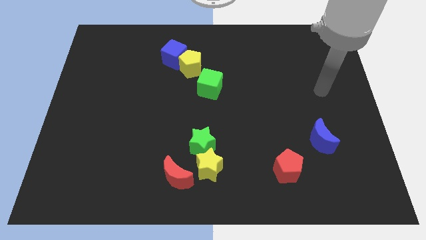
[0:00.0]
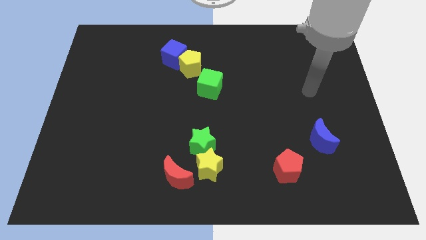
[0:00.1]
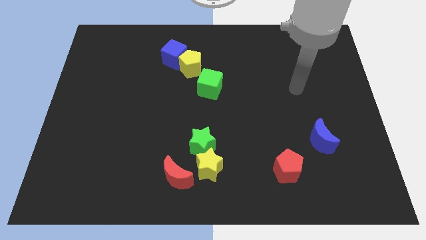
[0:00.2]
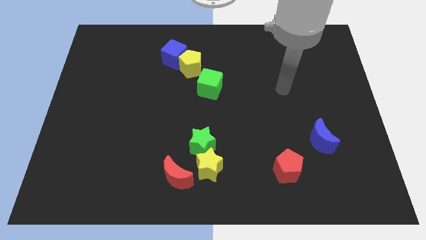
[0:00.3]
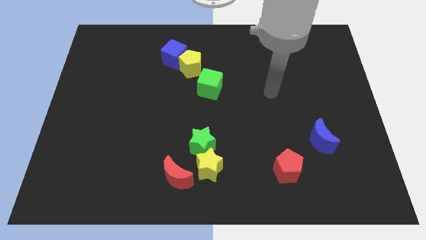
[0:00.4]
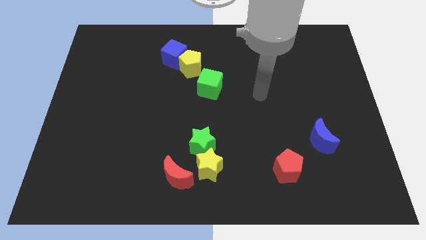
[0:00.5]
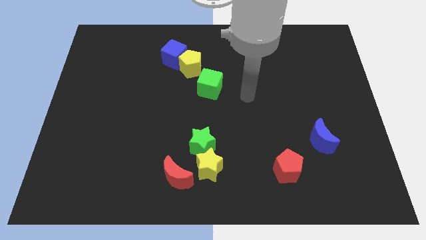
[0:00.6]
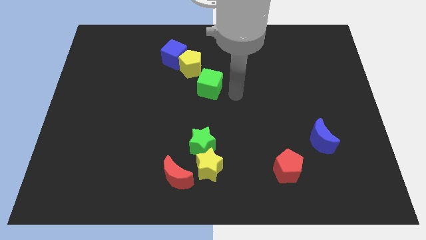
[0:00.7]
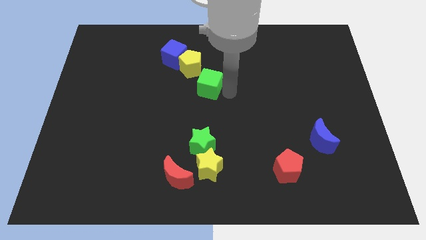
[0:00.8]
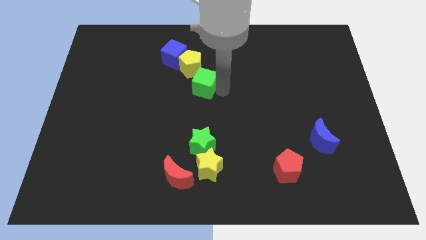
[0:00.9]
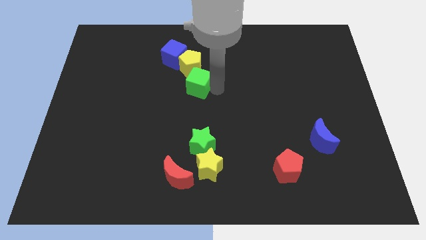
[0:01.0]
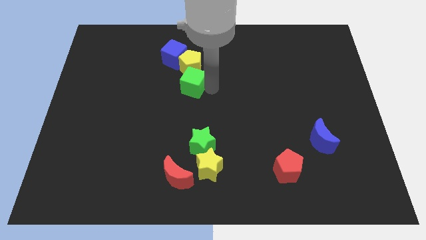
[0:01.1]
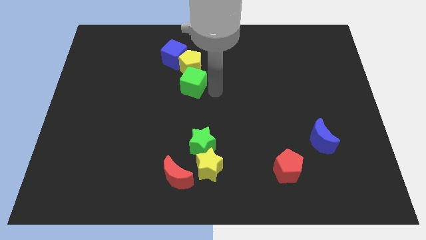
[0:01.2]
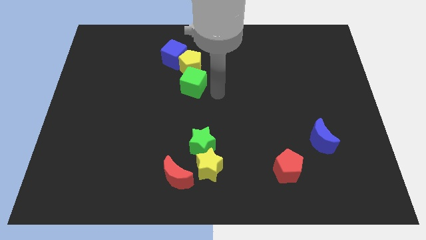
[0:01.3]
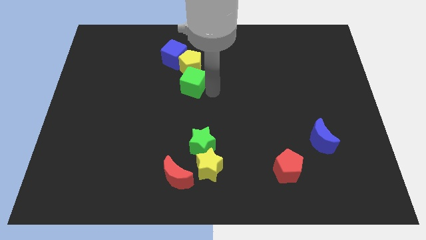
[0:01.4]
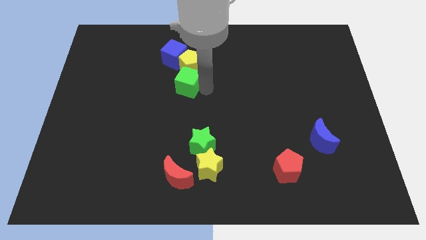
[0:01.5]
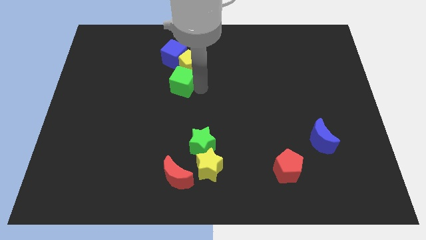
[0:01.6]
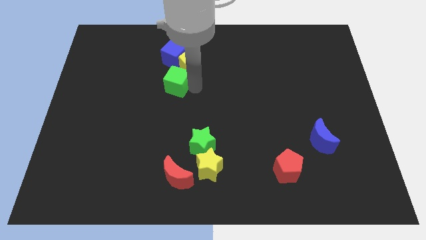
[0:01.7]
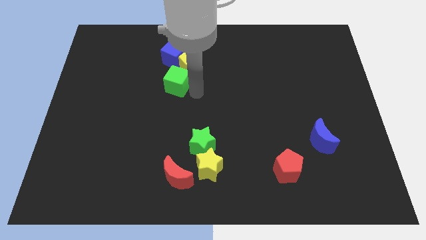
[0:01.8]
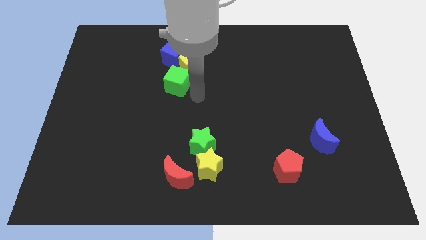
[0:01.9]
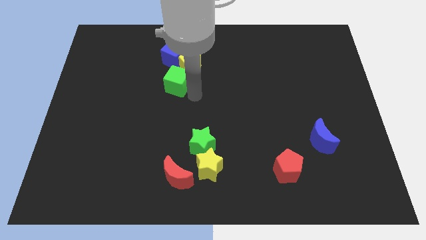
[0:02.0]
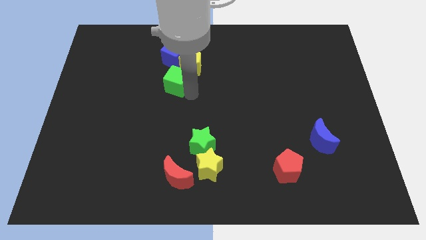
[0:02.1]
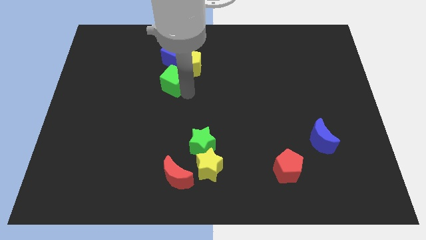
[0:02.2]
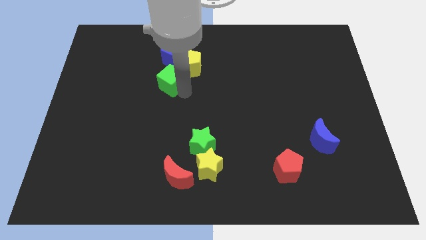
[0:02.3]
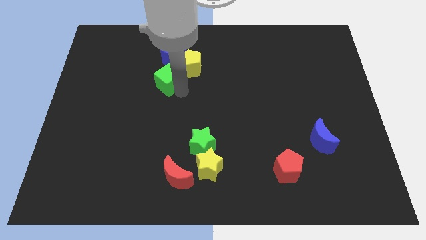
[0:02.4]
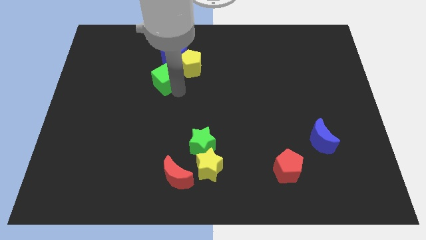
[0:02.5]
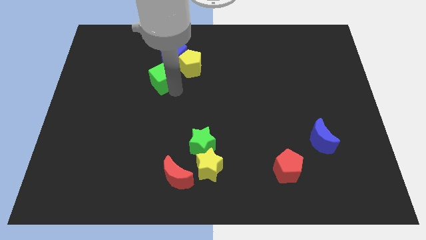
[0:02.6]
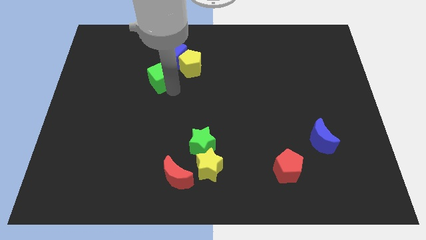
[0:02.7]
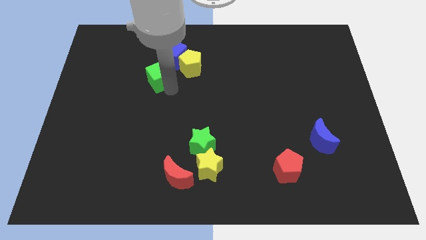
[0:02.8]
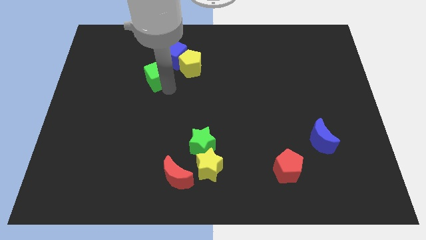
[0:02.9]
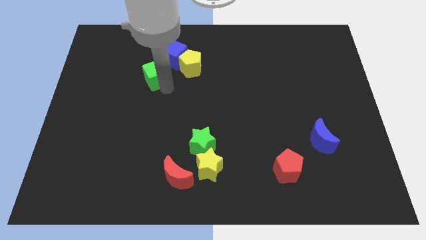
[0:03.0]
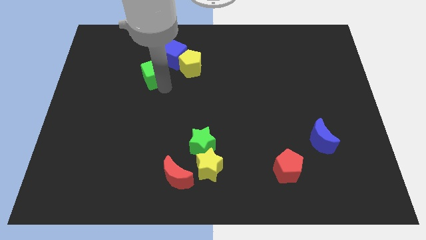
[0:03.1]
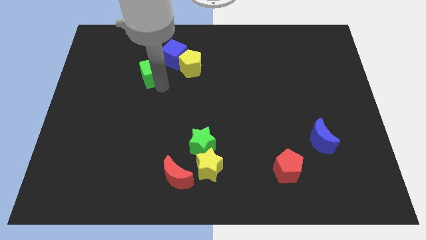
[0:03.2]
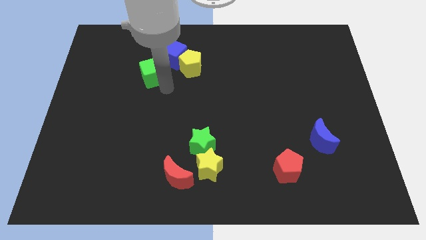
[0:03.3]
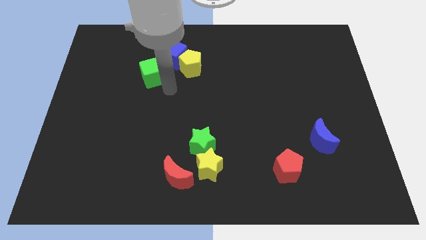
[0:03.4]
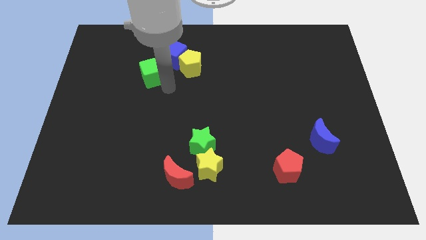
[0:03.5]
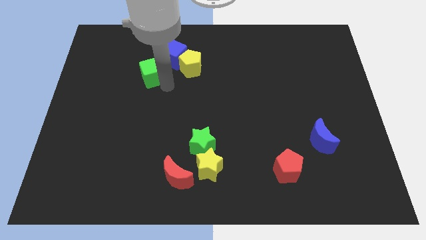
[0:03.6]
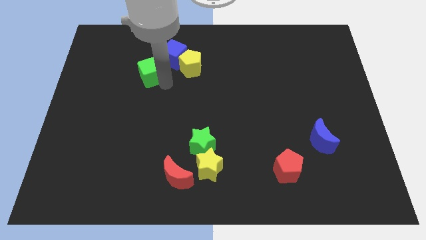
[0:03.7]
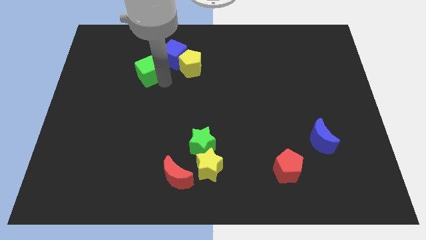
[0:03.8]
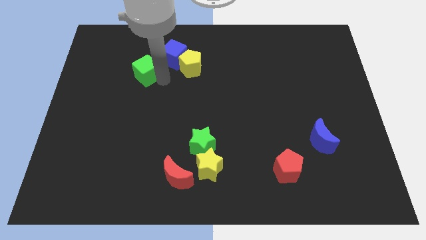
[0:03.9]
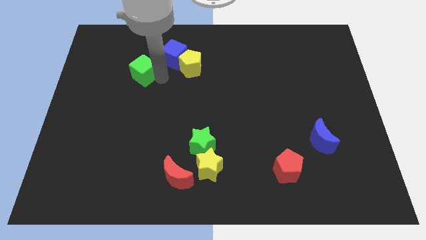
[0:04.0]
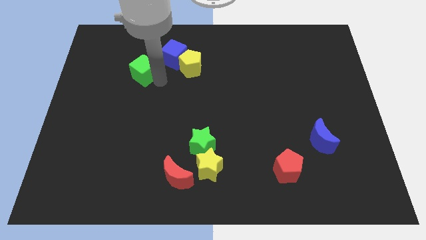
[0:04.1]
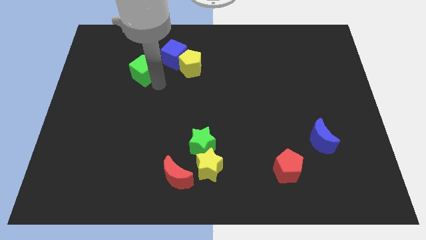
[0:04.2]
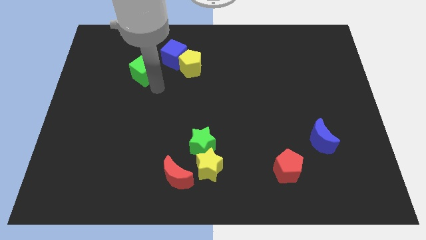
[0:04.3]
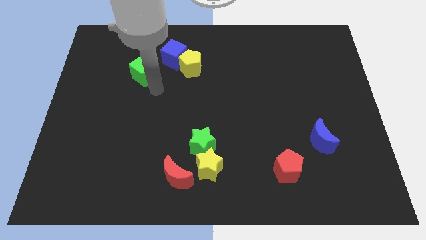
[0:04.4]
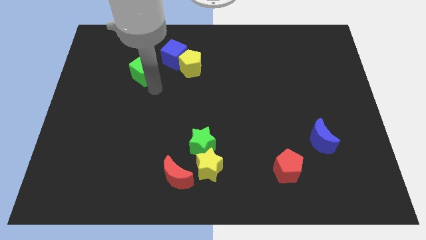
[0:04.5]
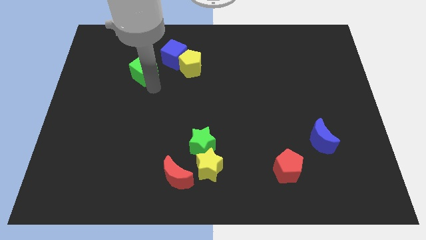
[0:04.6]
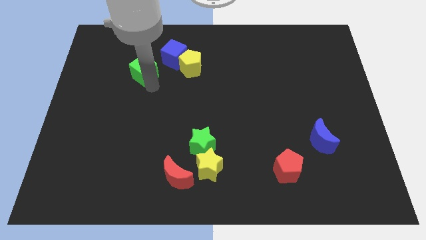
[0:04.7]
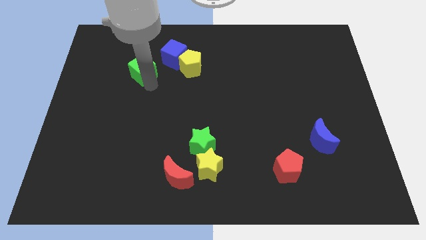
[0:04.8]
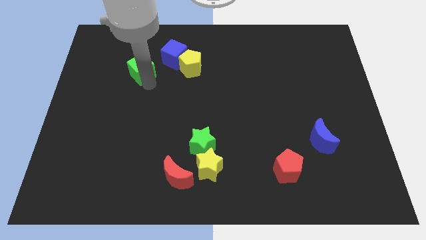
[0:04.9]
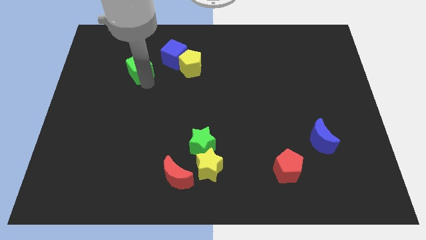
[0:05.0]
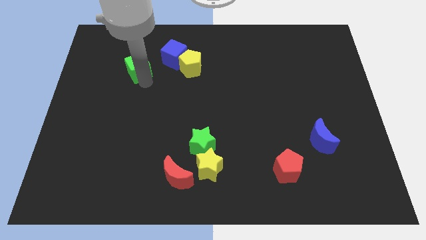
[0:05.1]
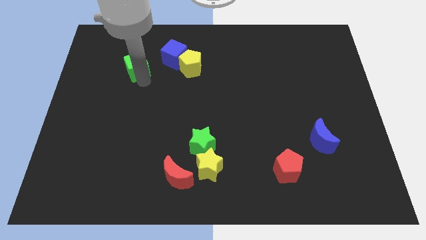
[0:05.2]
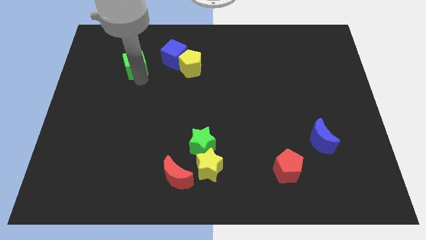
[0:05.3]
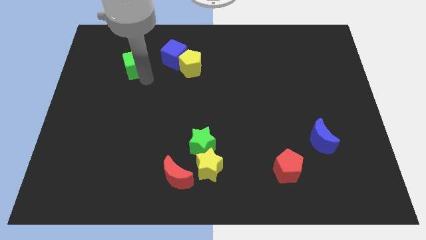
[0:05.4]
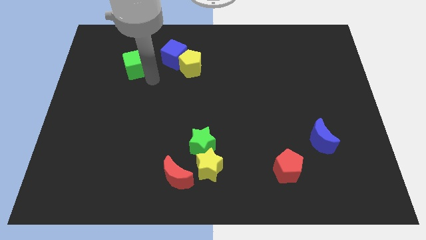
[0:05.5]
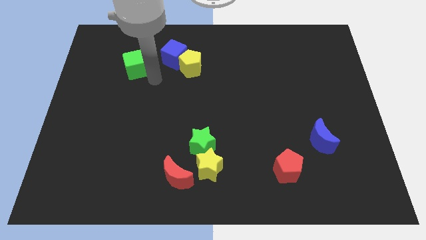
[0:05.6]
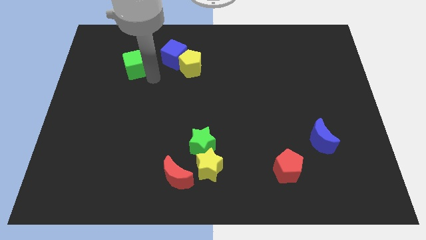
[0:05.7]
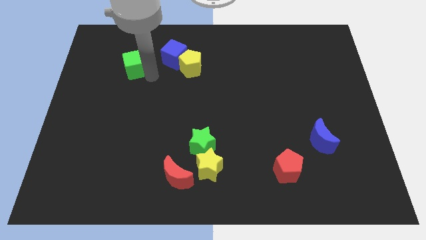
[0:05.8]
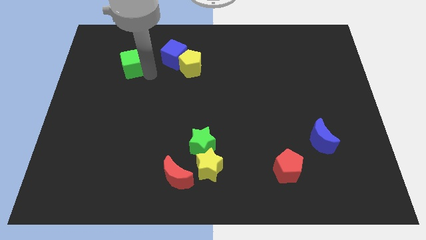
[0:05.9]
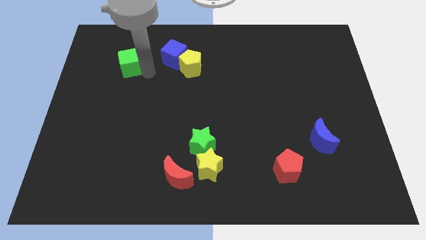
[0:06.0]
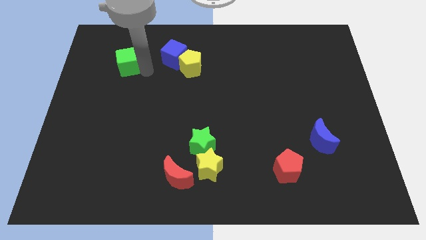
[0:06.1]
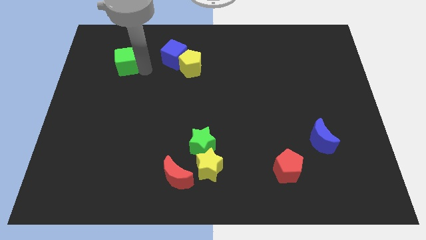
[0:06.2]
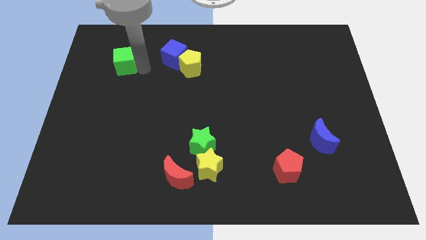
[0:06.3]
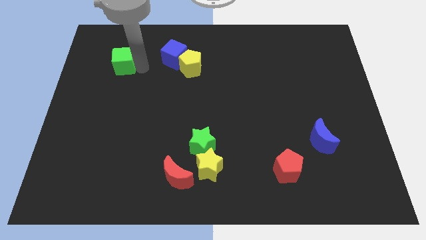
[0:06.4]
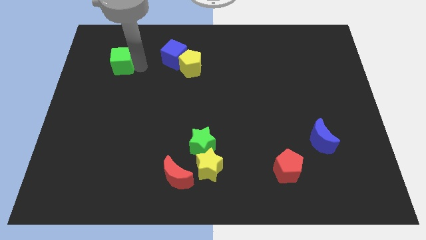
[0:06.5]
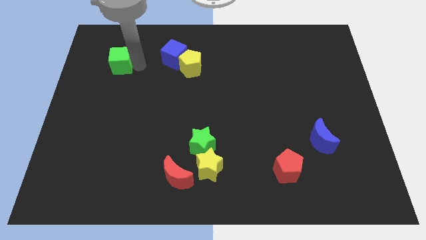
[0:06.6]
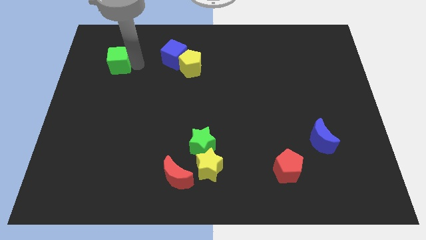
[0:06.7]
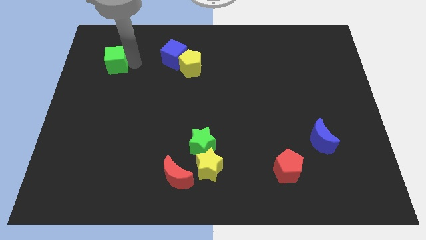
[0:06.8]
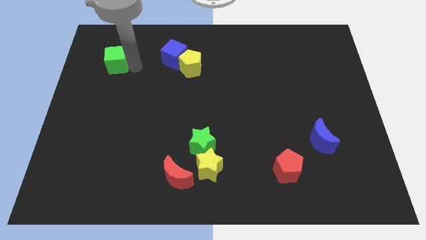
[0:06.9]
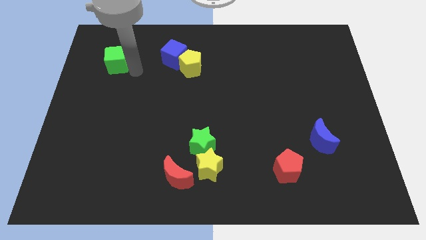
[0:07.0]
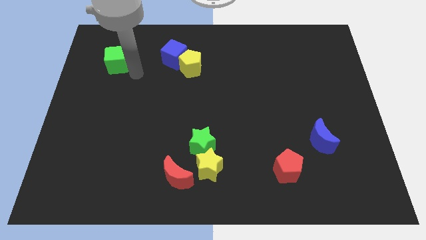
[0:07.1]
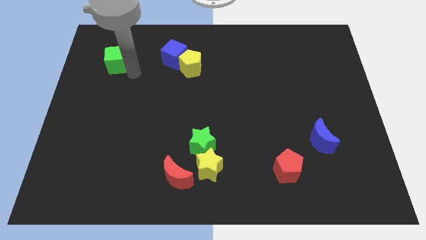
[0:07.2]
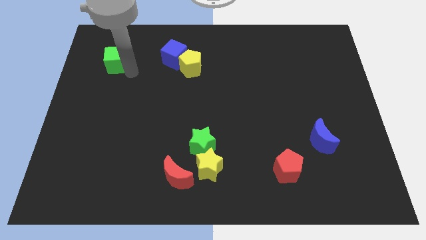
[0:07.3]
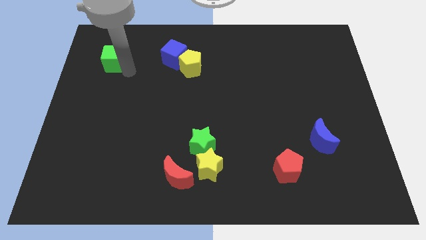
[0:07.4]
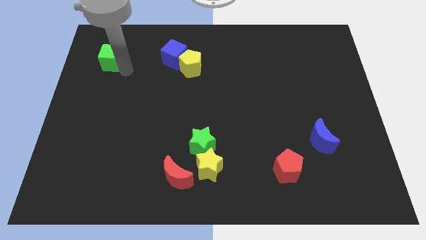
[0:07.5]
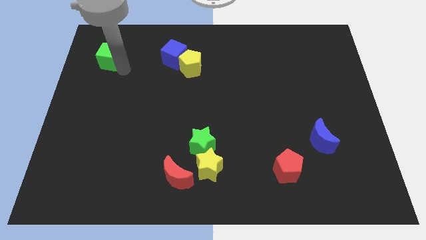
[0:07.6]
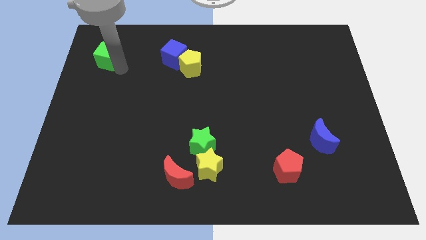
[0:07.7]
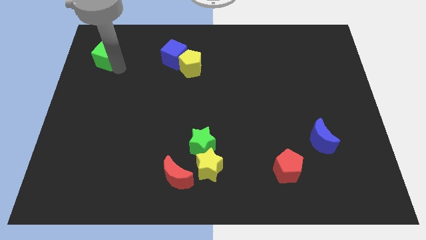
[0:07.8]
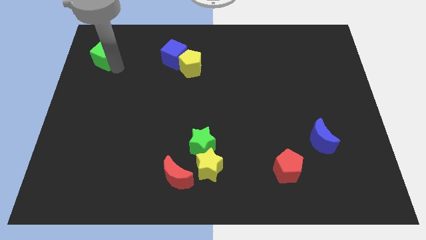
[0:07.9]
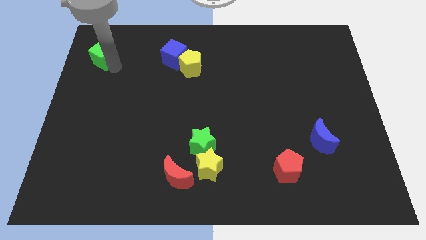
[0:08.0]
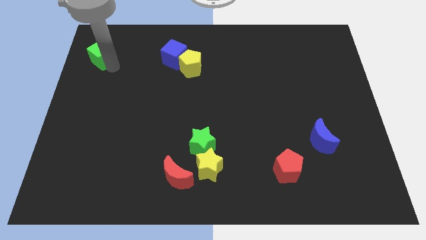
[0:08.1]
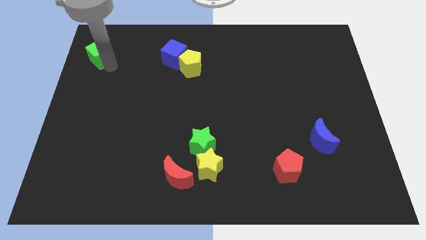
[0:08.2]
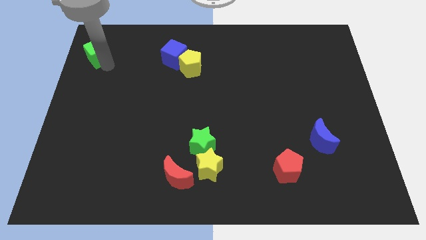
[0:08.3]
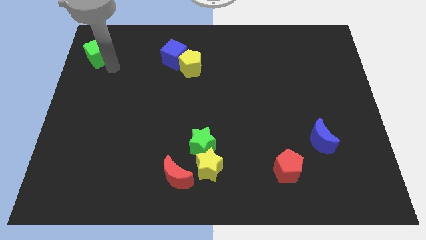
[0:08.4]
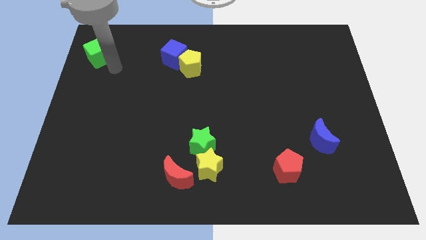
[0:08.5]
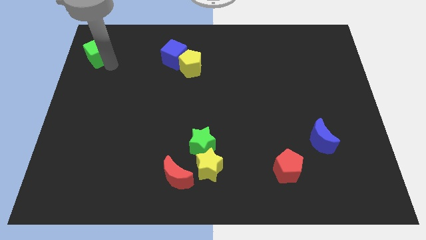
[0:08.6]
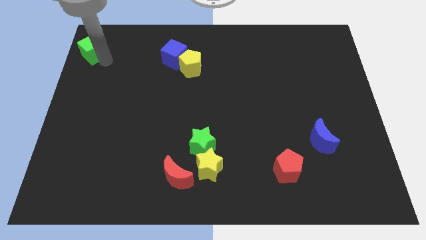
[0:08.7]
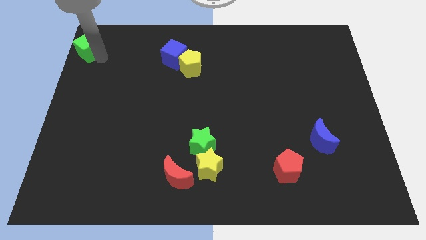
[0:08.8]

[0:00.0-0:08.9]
push the green cube to the top left of the board
